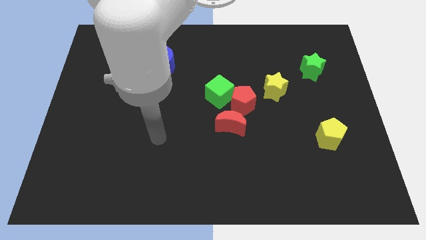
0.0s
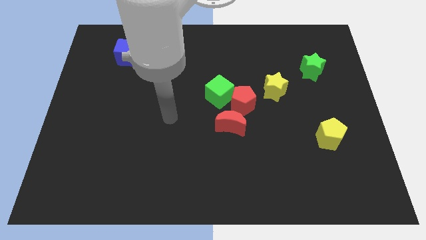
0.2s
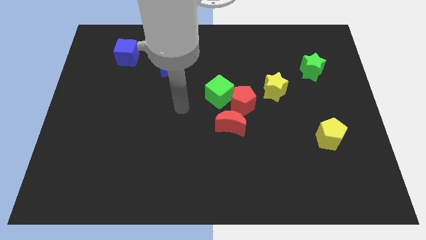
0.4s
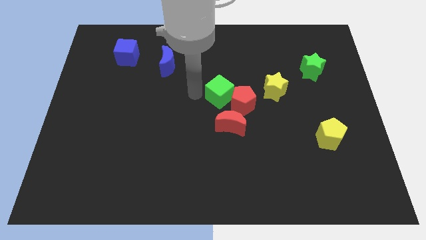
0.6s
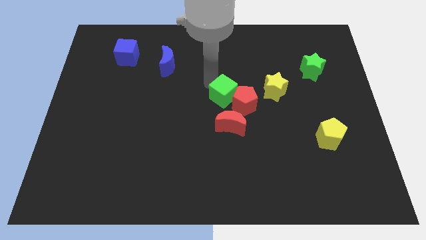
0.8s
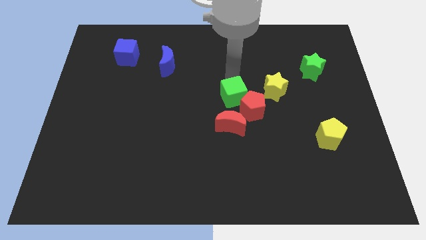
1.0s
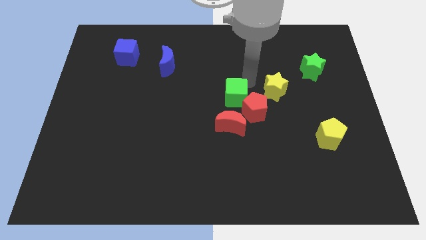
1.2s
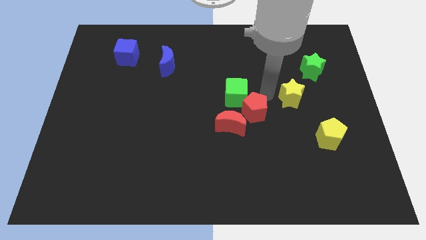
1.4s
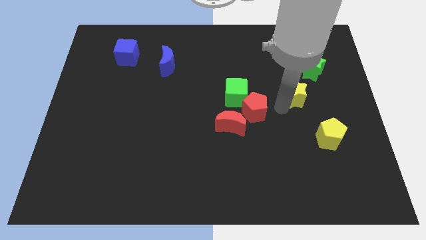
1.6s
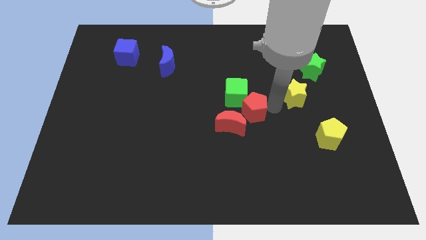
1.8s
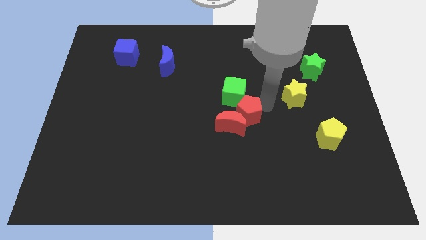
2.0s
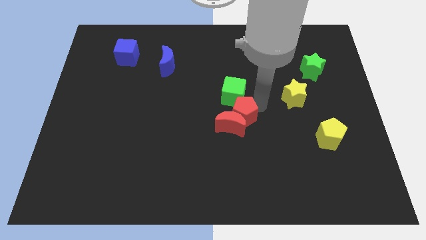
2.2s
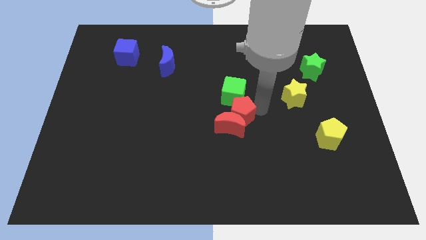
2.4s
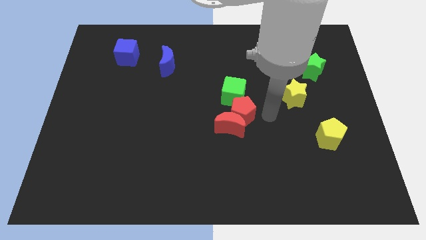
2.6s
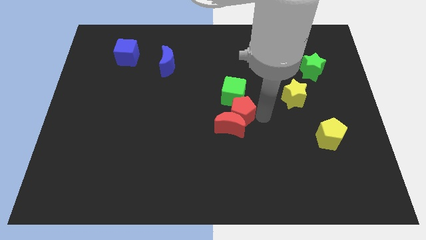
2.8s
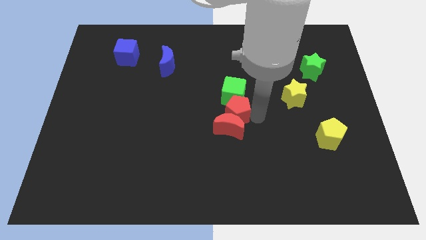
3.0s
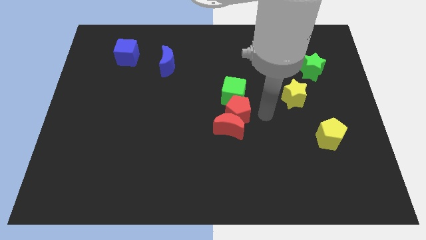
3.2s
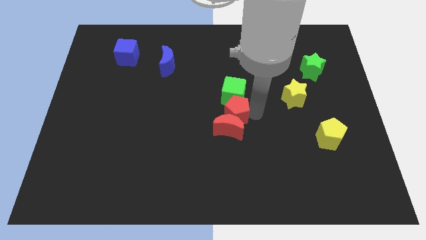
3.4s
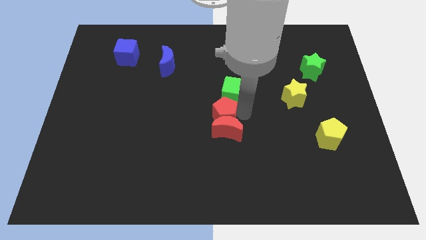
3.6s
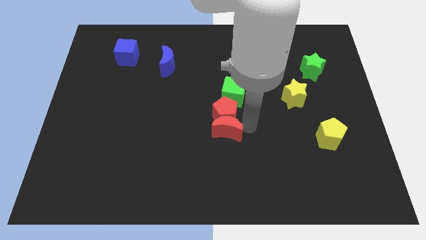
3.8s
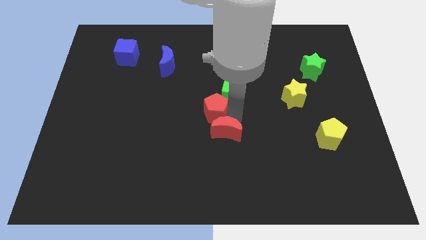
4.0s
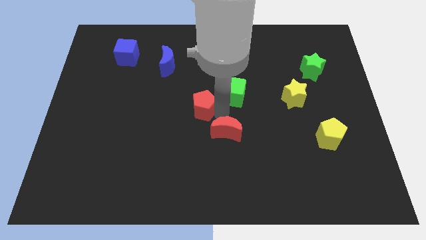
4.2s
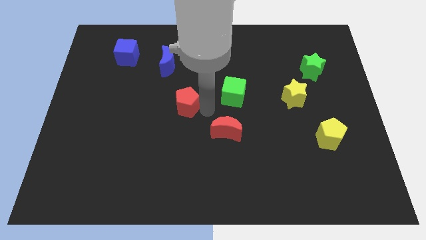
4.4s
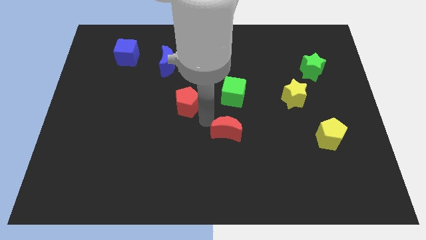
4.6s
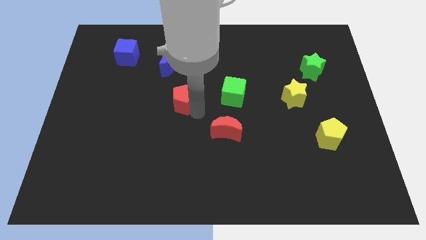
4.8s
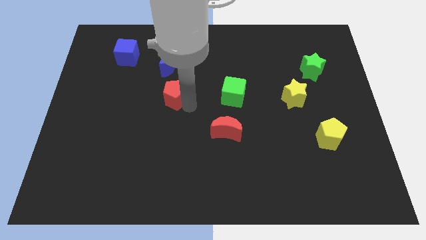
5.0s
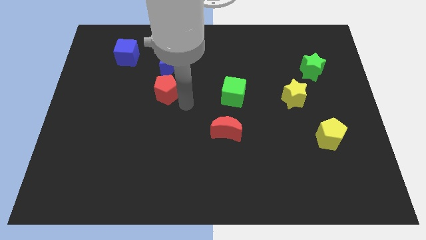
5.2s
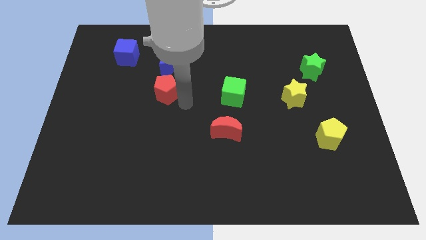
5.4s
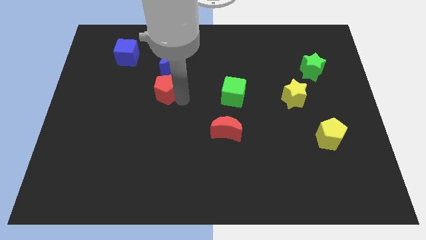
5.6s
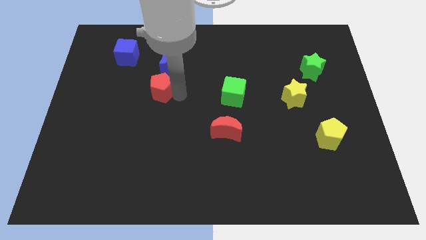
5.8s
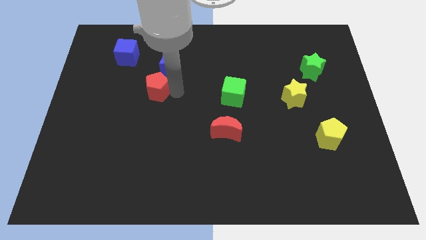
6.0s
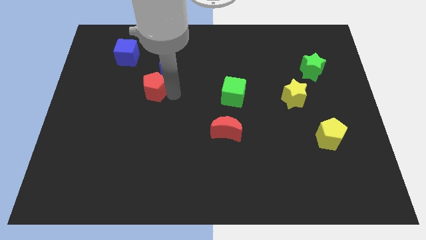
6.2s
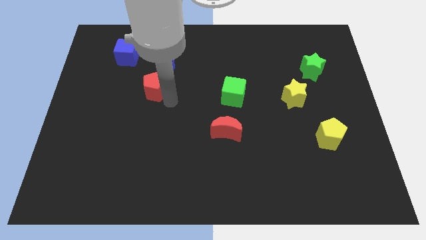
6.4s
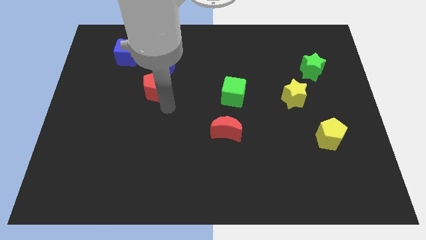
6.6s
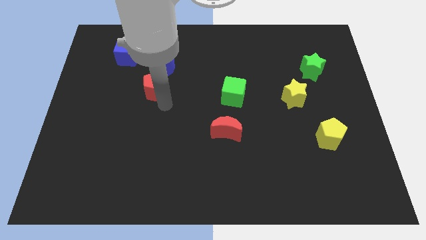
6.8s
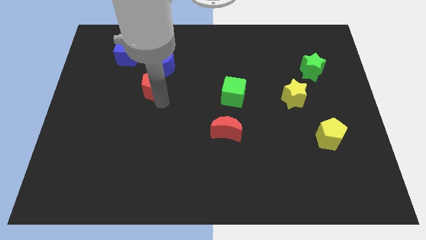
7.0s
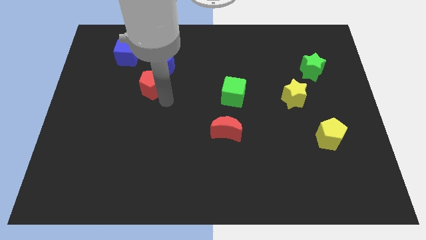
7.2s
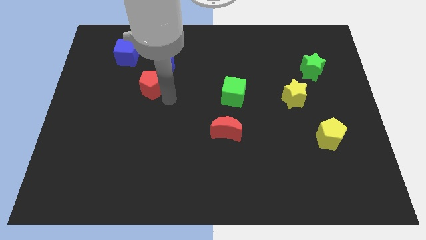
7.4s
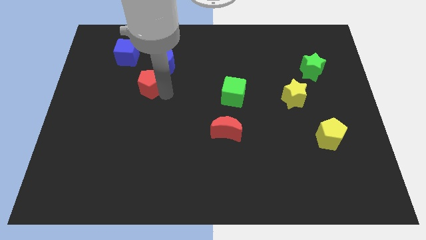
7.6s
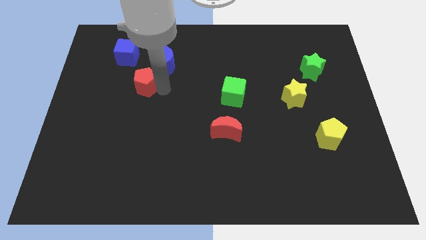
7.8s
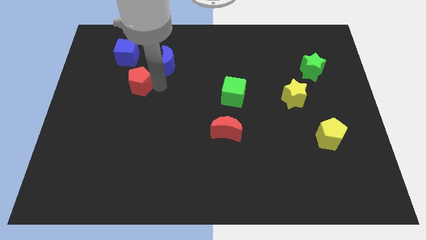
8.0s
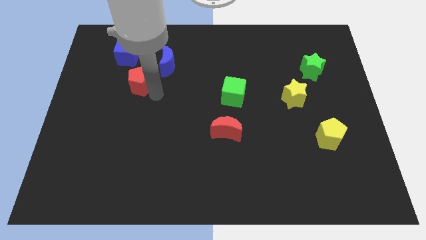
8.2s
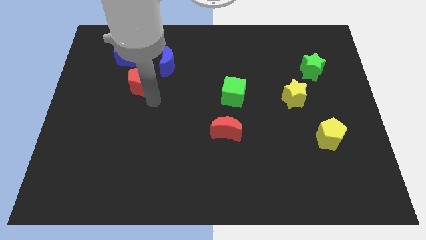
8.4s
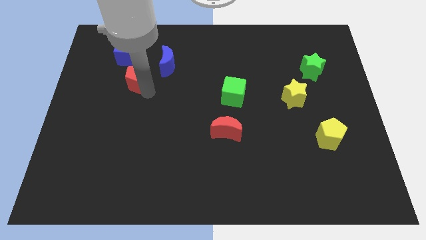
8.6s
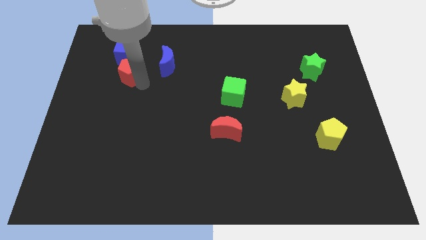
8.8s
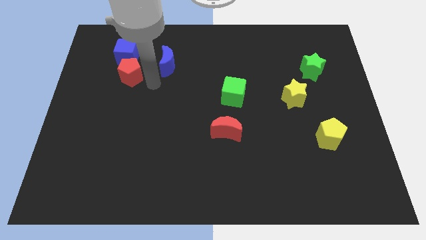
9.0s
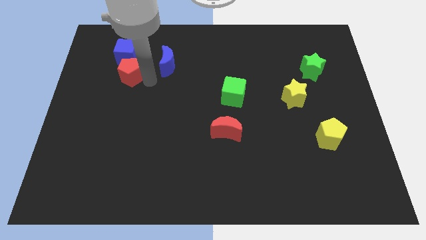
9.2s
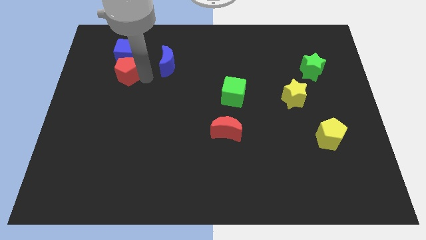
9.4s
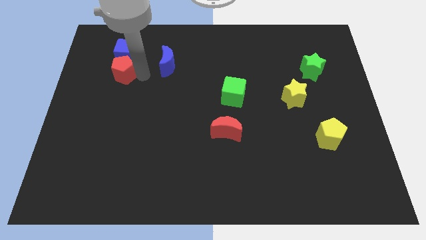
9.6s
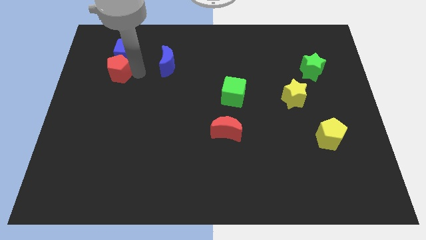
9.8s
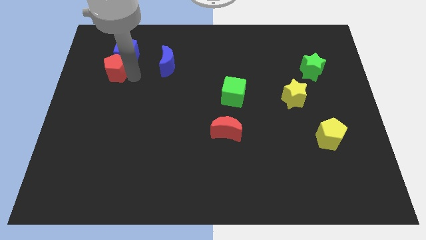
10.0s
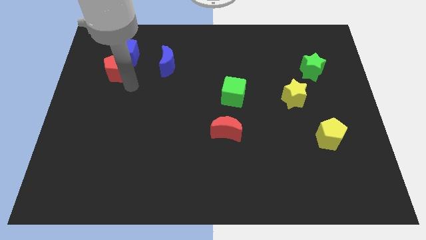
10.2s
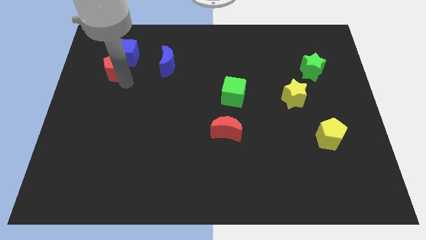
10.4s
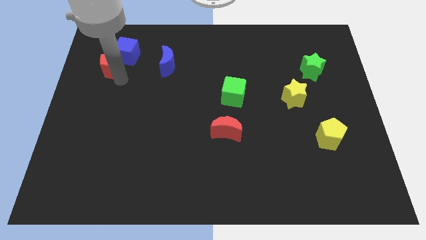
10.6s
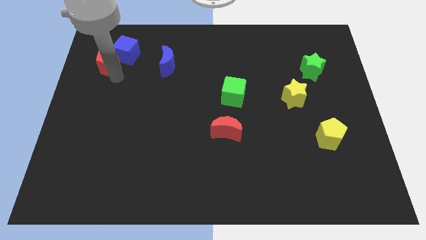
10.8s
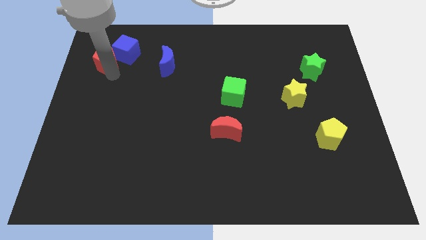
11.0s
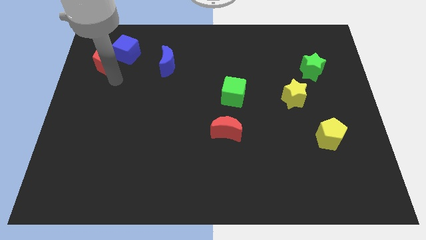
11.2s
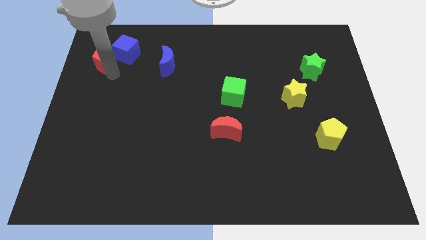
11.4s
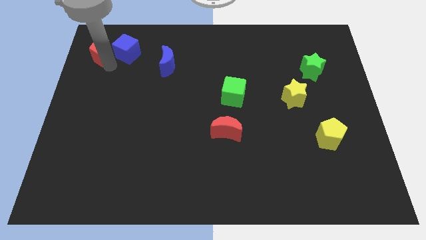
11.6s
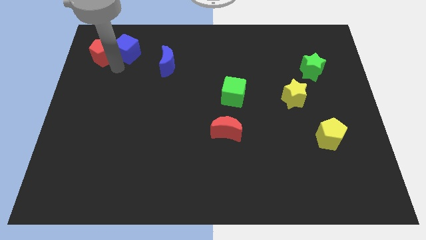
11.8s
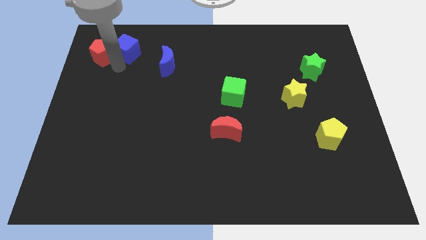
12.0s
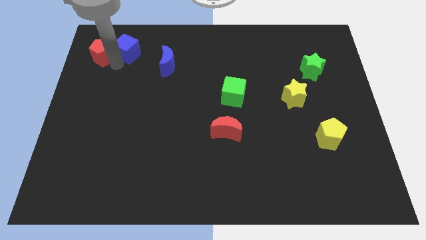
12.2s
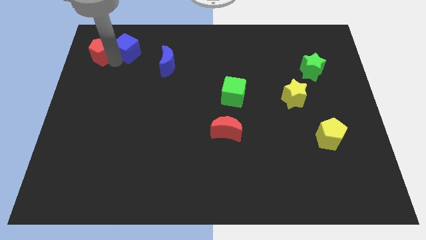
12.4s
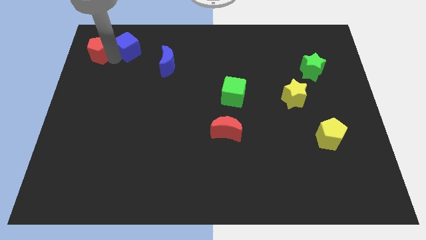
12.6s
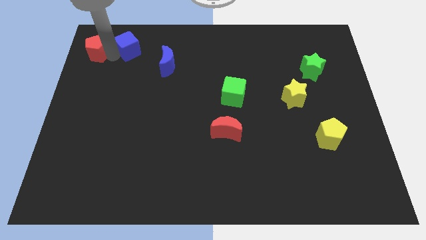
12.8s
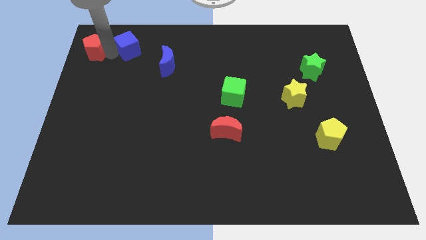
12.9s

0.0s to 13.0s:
put the red pentagon to the top left of the board
